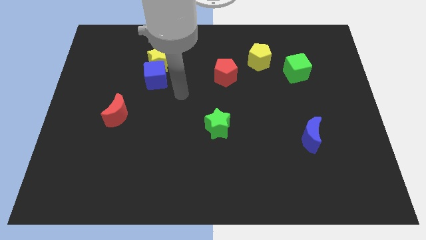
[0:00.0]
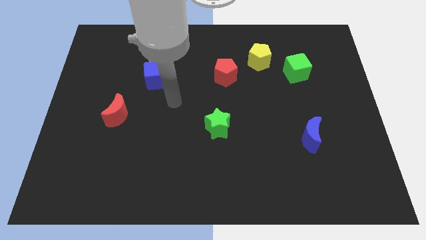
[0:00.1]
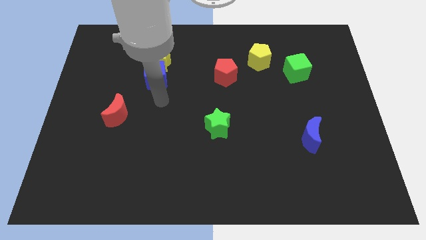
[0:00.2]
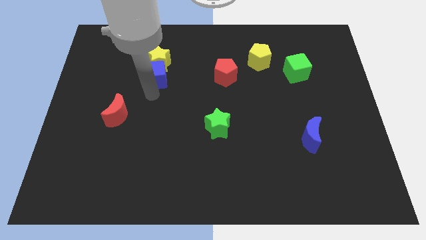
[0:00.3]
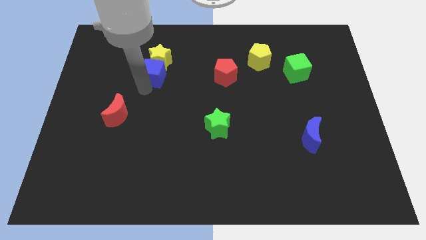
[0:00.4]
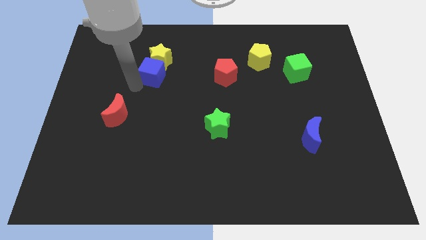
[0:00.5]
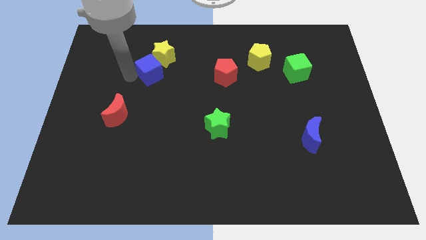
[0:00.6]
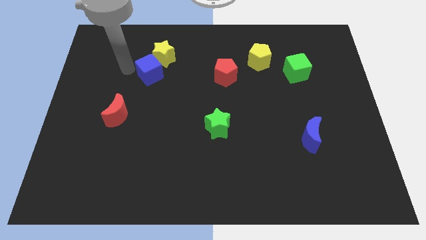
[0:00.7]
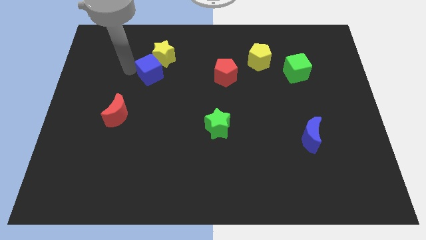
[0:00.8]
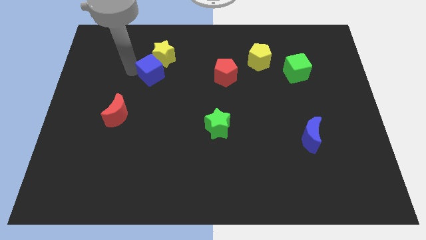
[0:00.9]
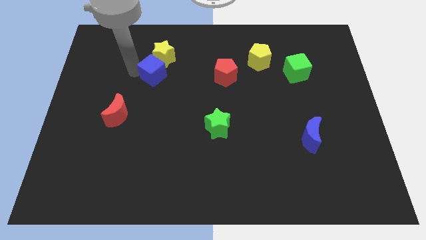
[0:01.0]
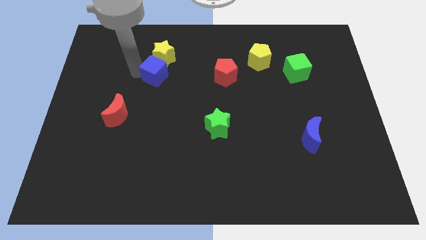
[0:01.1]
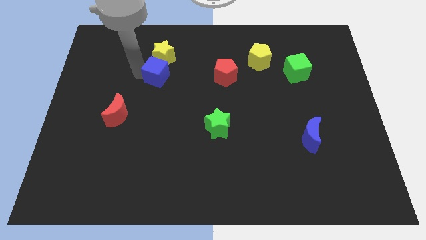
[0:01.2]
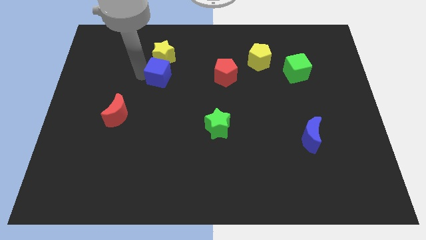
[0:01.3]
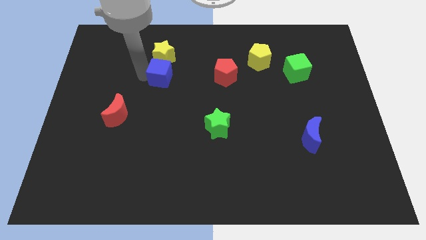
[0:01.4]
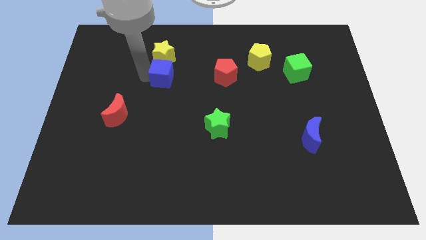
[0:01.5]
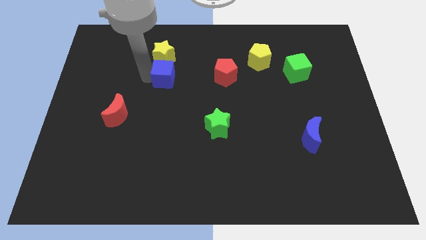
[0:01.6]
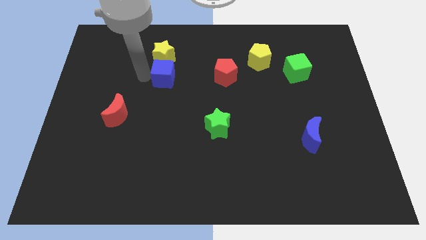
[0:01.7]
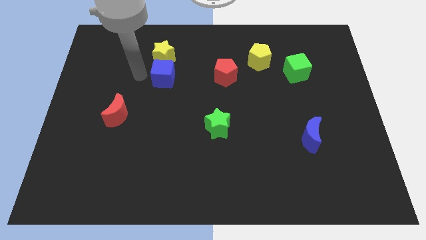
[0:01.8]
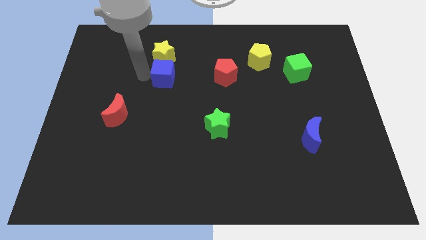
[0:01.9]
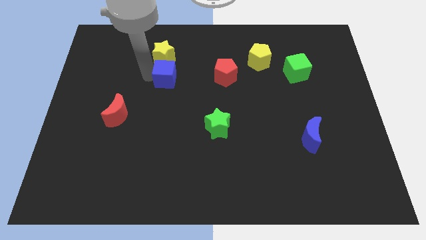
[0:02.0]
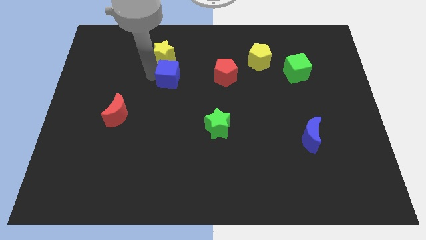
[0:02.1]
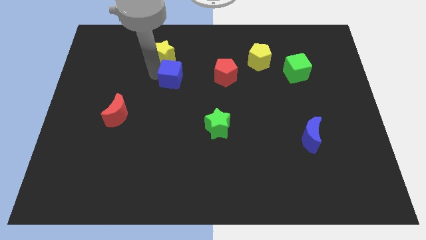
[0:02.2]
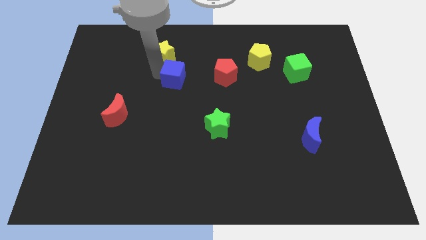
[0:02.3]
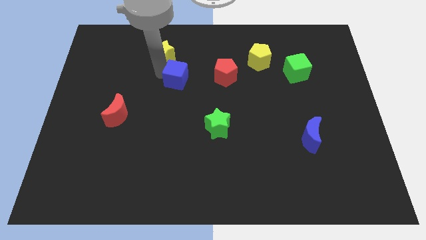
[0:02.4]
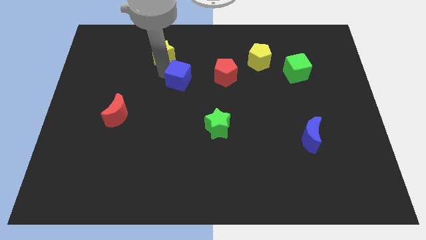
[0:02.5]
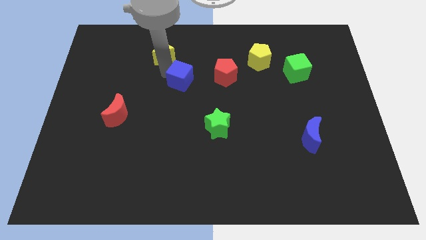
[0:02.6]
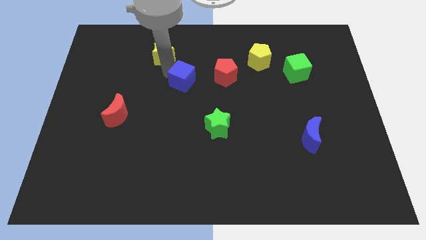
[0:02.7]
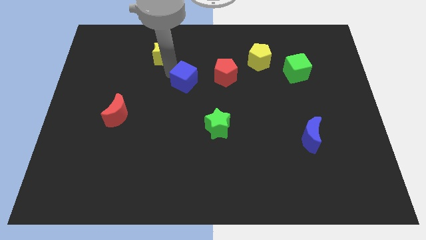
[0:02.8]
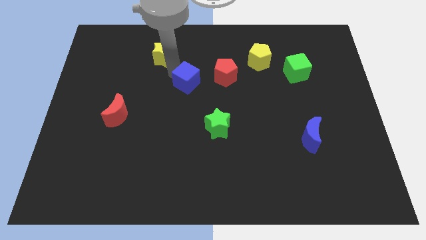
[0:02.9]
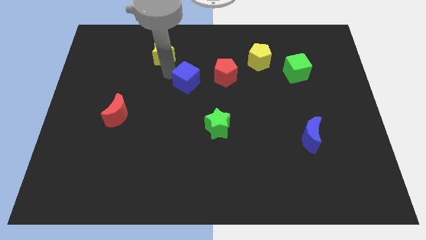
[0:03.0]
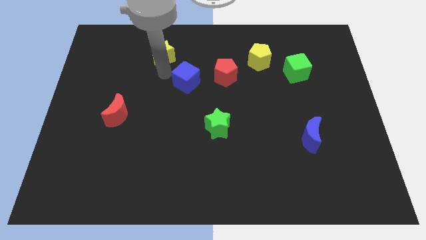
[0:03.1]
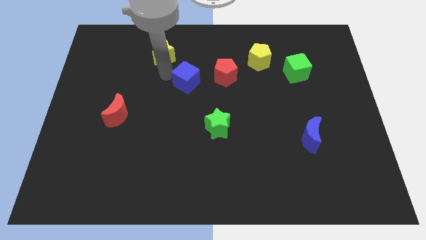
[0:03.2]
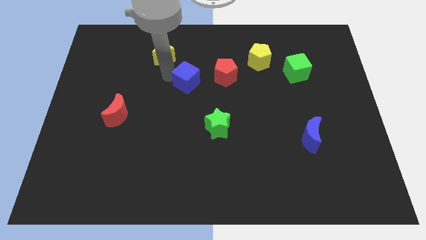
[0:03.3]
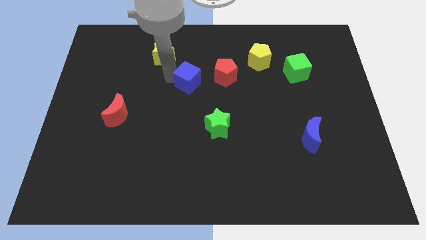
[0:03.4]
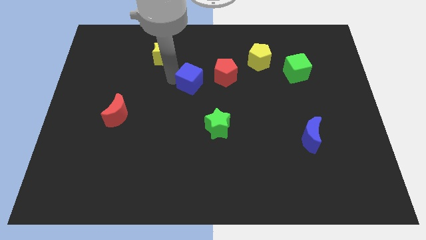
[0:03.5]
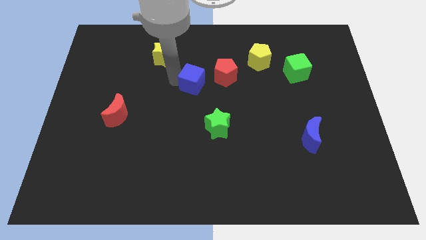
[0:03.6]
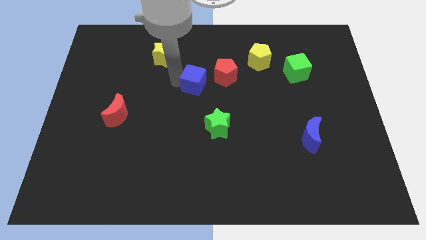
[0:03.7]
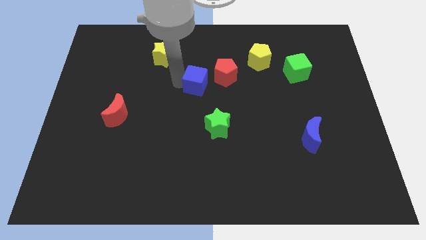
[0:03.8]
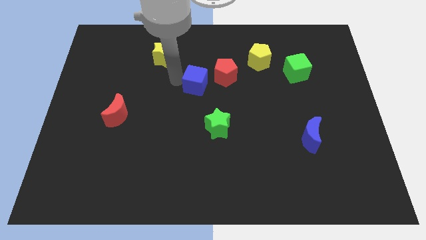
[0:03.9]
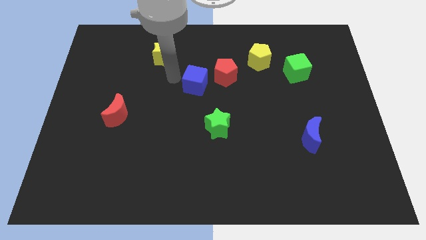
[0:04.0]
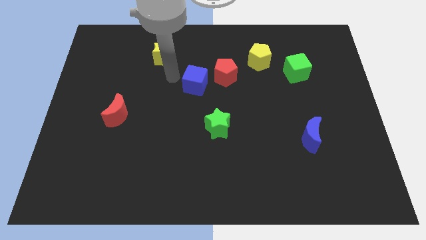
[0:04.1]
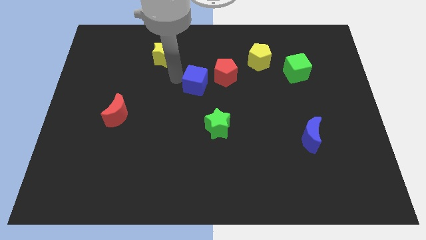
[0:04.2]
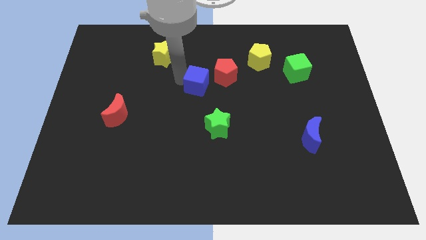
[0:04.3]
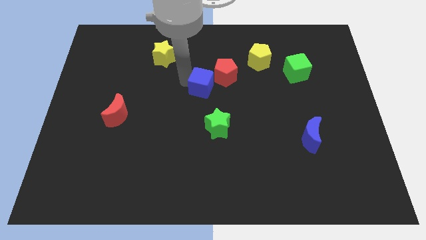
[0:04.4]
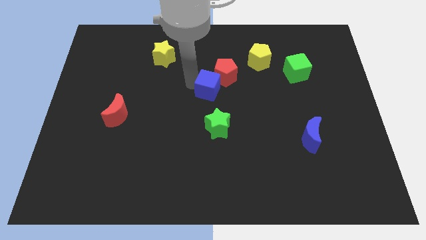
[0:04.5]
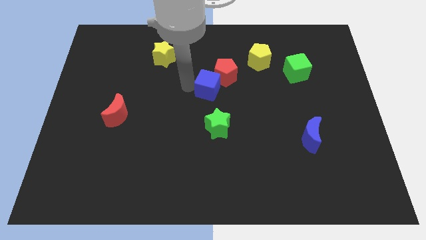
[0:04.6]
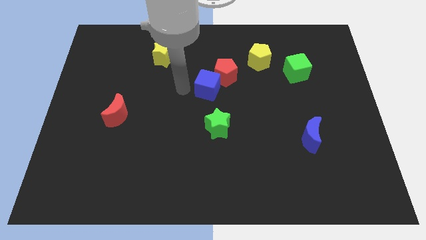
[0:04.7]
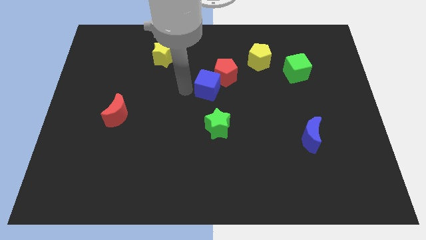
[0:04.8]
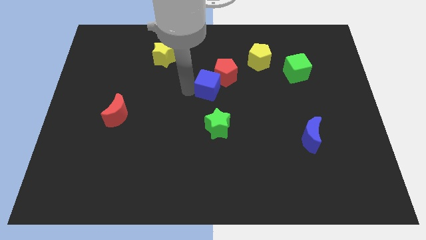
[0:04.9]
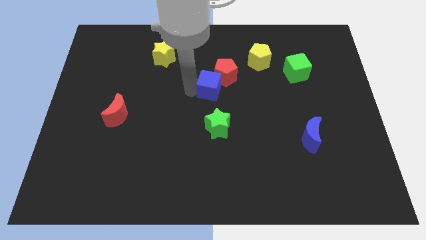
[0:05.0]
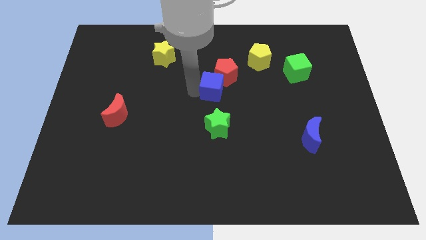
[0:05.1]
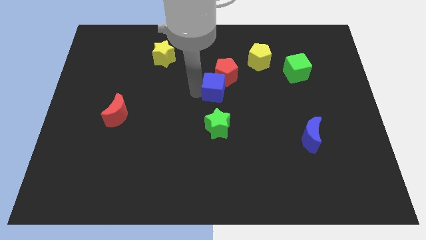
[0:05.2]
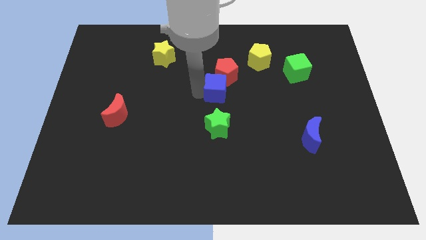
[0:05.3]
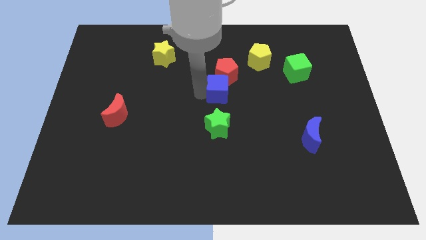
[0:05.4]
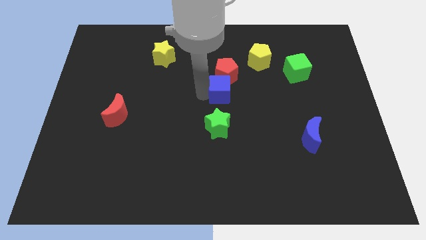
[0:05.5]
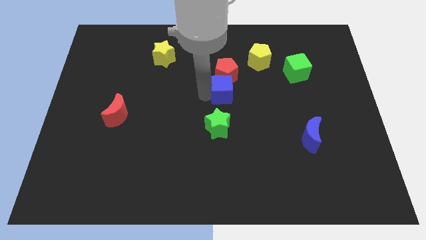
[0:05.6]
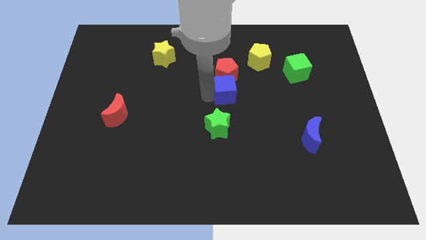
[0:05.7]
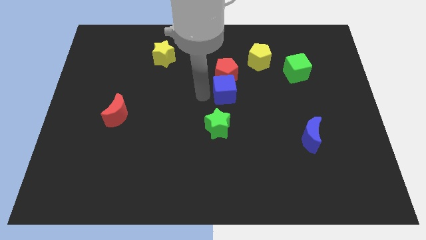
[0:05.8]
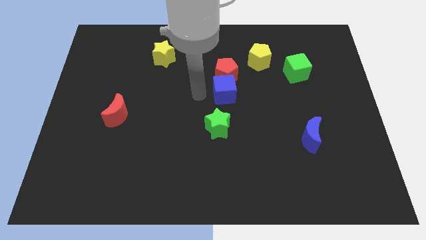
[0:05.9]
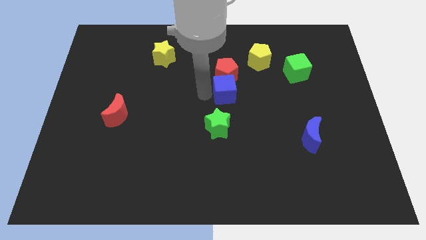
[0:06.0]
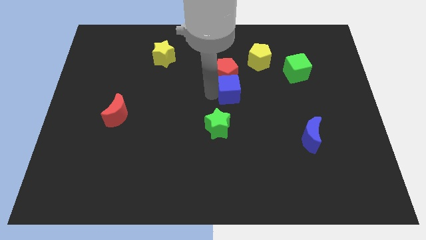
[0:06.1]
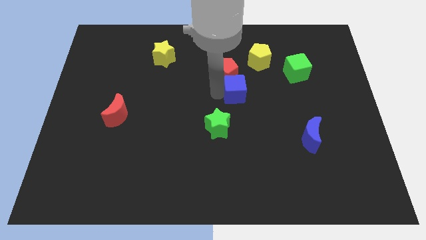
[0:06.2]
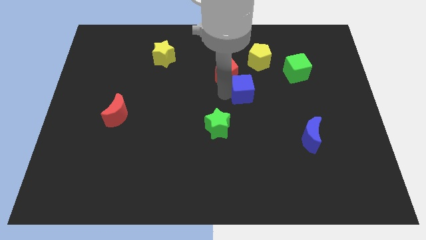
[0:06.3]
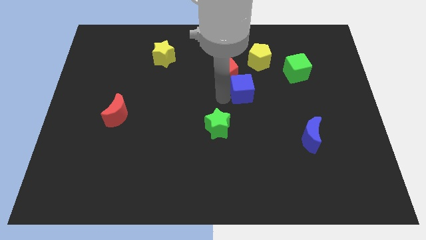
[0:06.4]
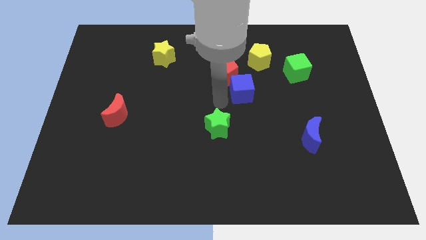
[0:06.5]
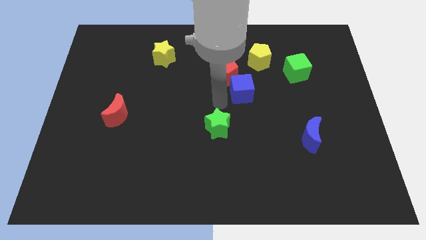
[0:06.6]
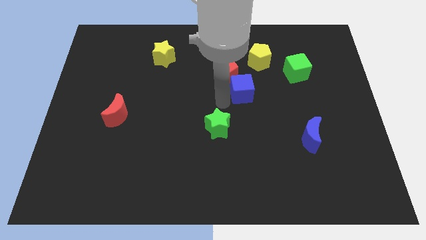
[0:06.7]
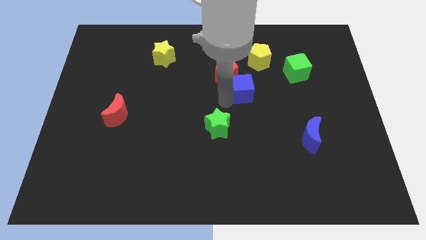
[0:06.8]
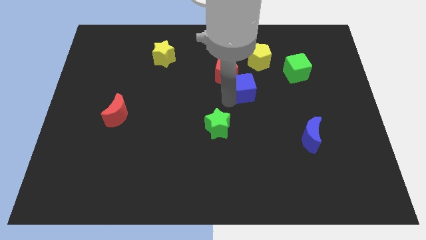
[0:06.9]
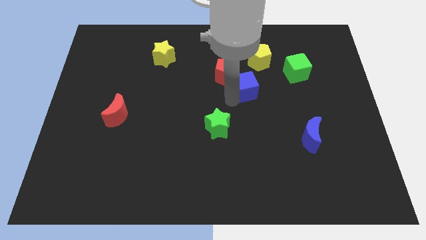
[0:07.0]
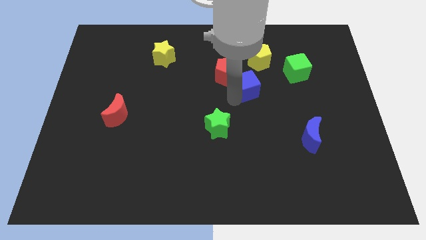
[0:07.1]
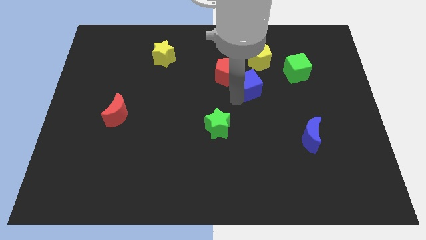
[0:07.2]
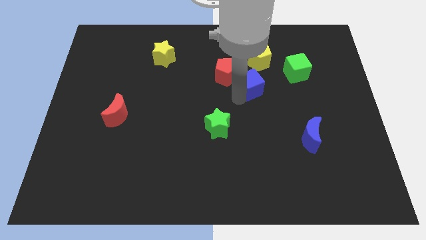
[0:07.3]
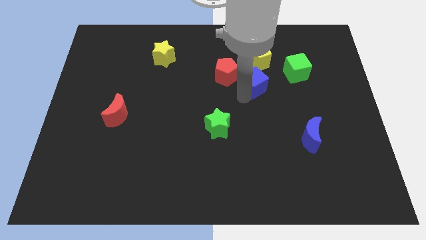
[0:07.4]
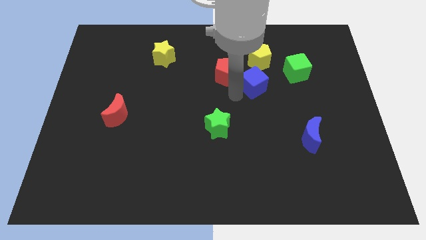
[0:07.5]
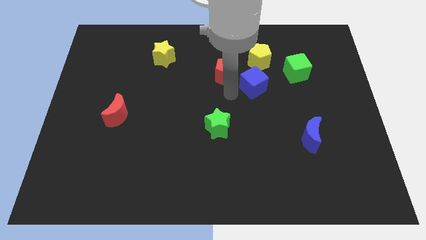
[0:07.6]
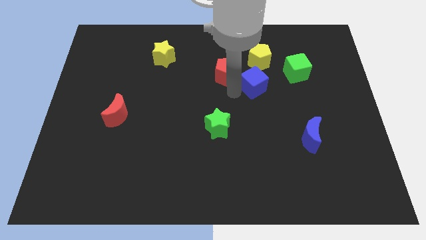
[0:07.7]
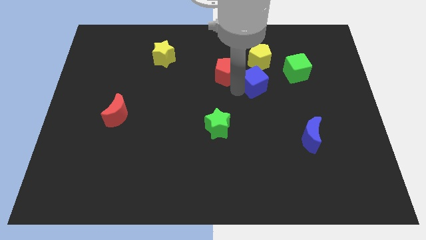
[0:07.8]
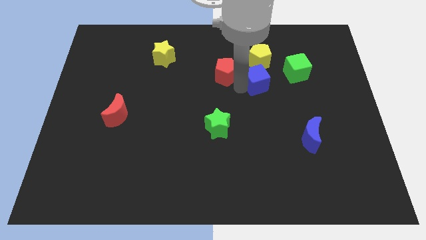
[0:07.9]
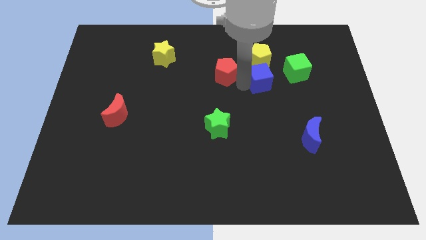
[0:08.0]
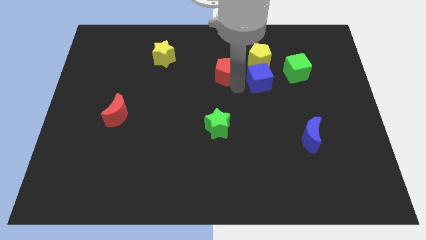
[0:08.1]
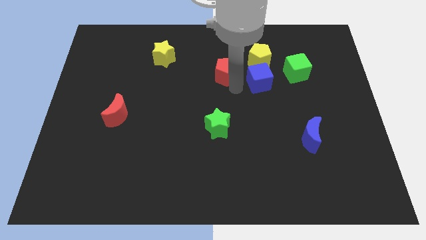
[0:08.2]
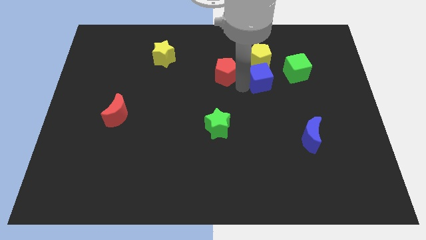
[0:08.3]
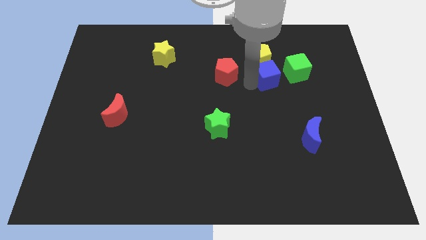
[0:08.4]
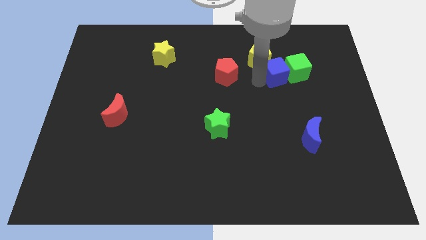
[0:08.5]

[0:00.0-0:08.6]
slide the blue cube towards the green cube
